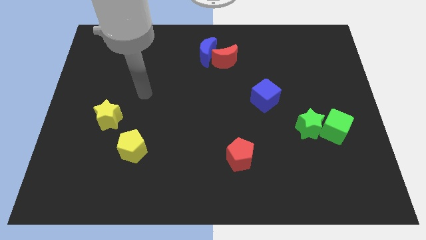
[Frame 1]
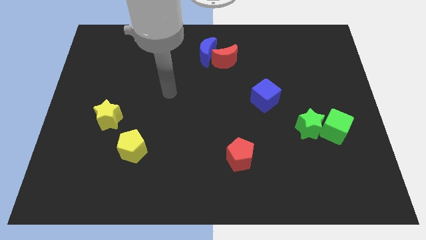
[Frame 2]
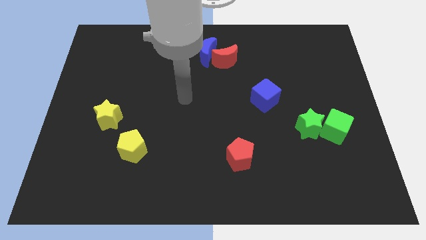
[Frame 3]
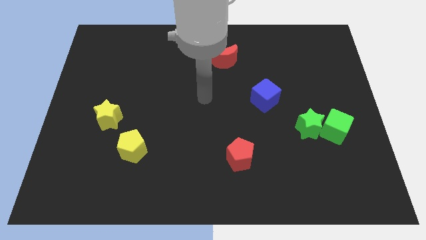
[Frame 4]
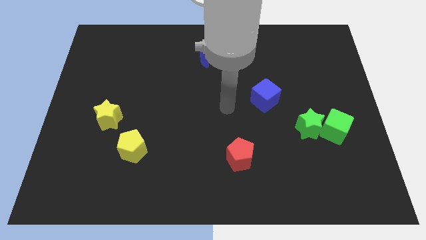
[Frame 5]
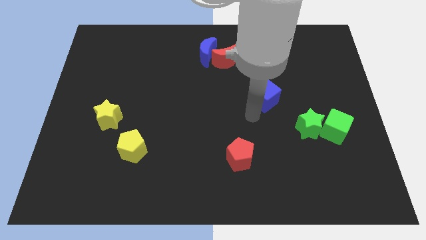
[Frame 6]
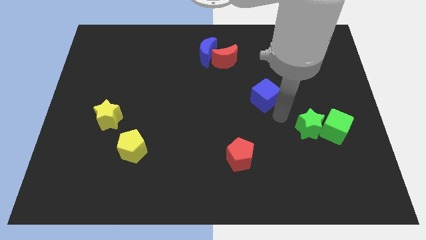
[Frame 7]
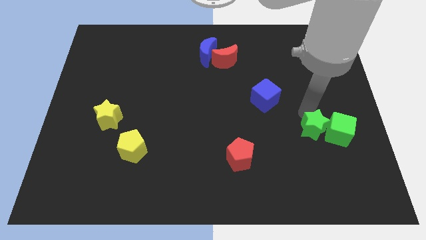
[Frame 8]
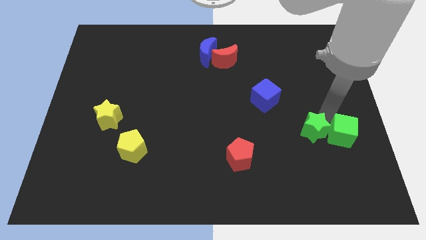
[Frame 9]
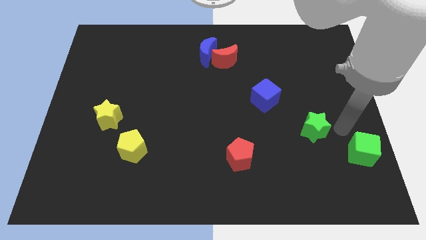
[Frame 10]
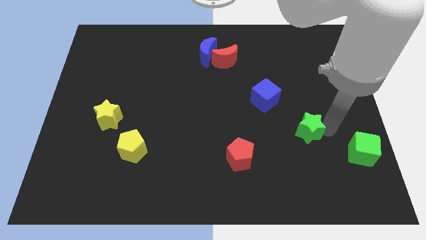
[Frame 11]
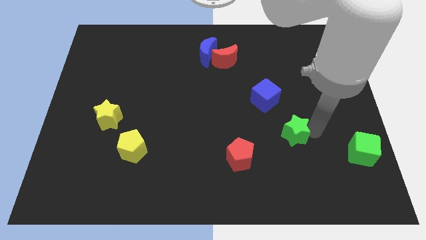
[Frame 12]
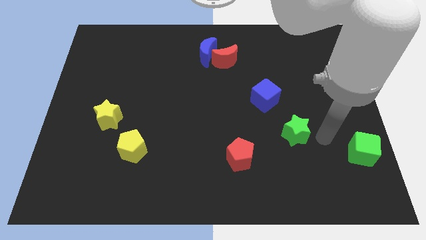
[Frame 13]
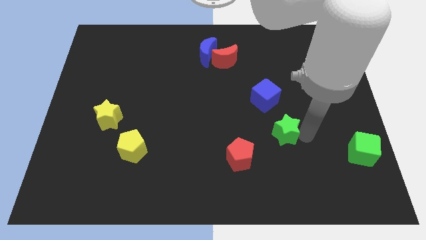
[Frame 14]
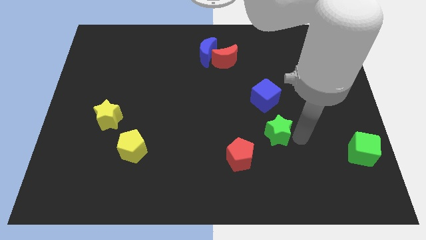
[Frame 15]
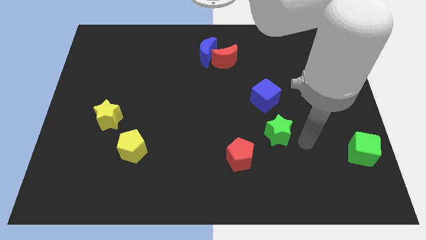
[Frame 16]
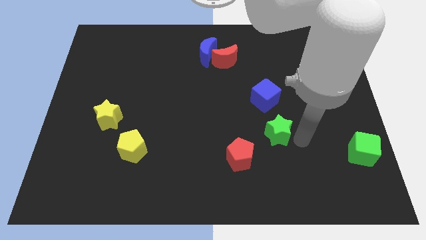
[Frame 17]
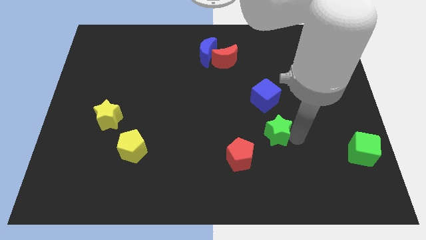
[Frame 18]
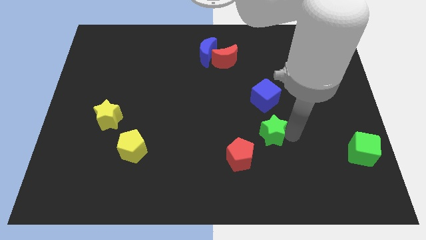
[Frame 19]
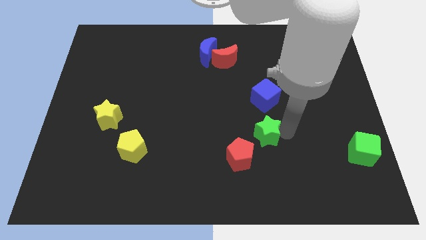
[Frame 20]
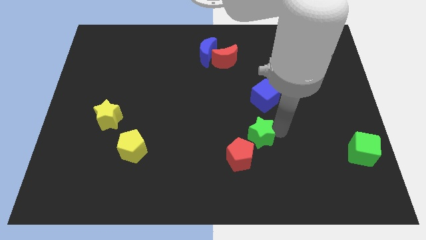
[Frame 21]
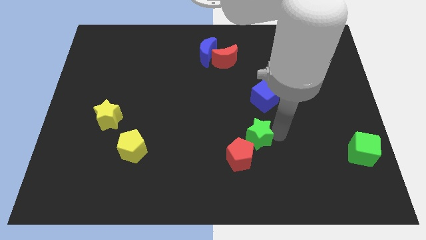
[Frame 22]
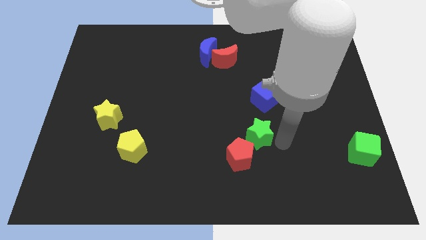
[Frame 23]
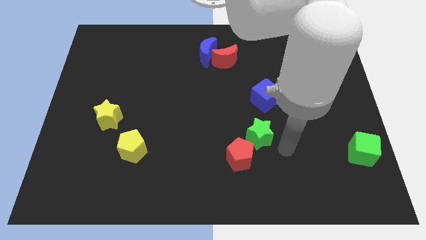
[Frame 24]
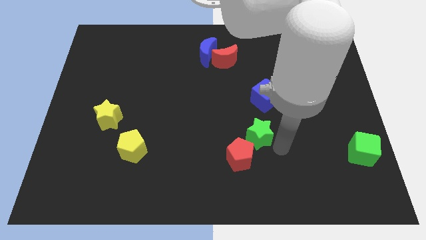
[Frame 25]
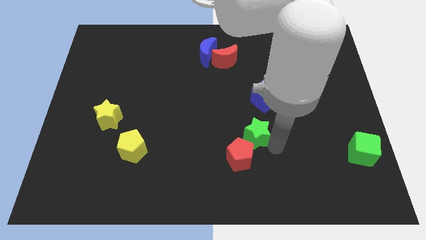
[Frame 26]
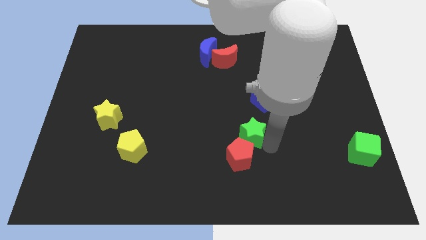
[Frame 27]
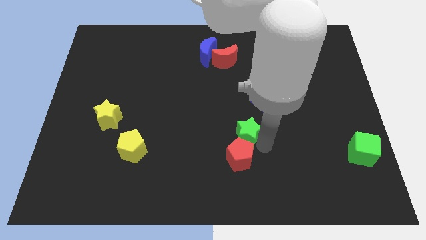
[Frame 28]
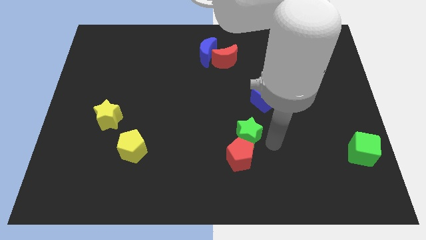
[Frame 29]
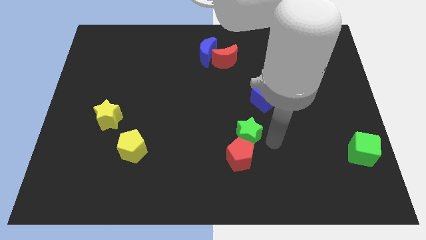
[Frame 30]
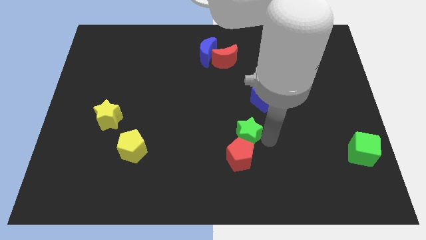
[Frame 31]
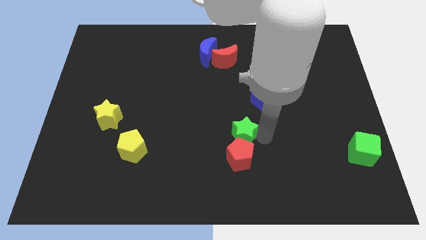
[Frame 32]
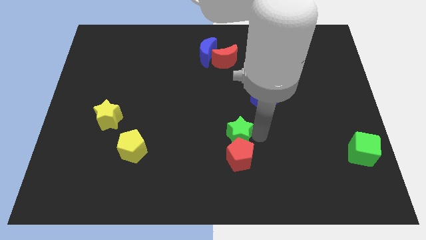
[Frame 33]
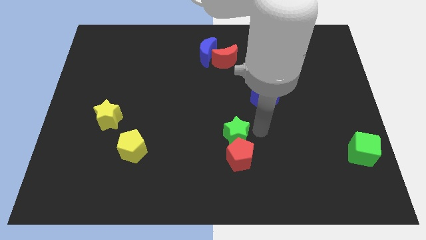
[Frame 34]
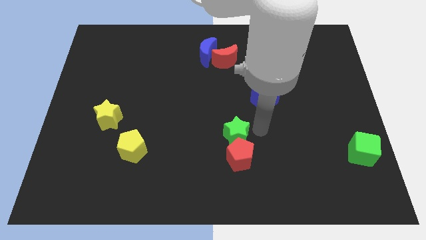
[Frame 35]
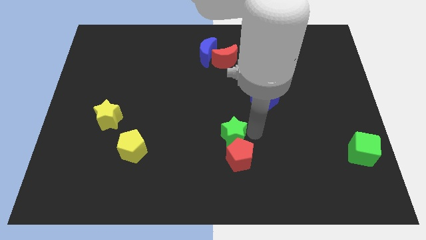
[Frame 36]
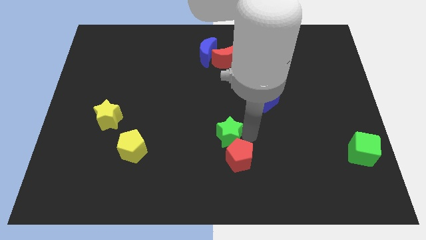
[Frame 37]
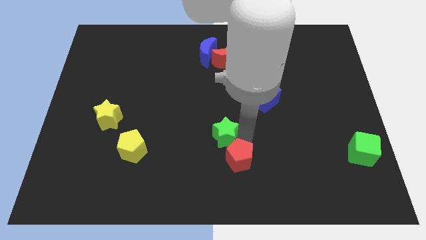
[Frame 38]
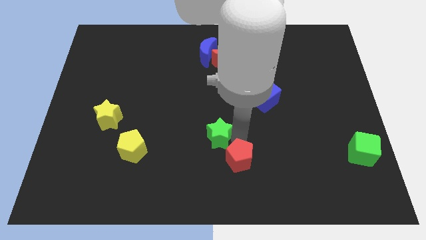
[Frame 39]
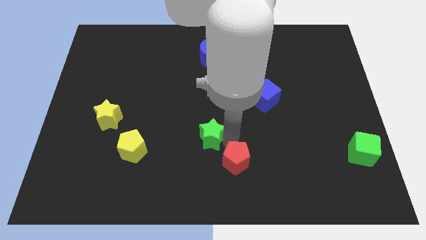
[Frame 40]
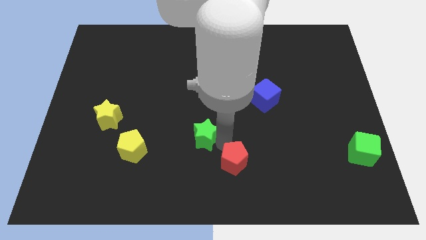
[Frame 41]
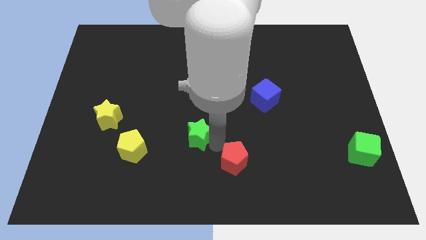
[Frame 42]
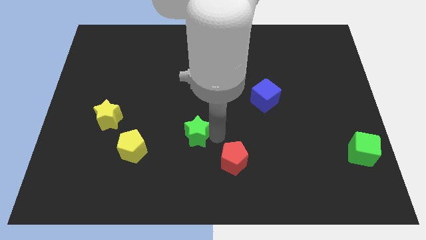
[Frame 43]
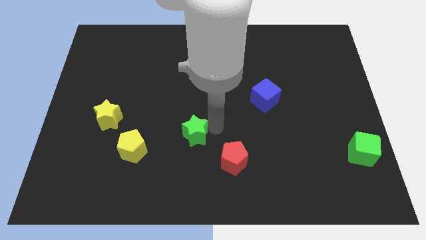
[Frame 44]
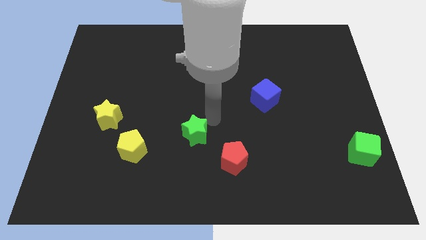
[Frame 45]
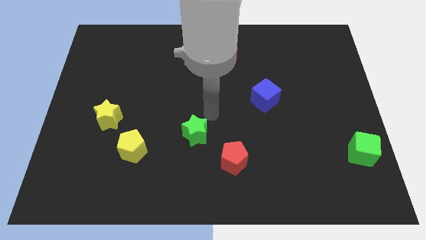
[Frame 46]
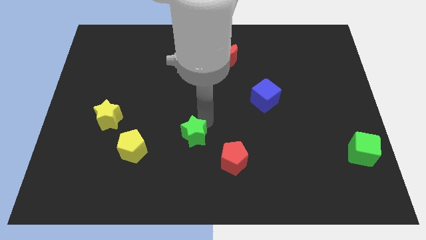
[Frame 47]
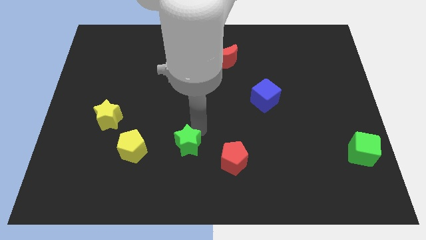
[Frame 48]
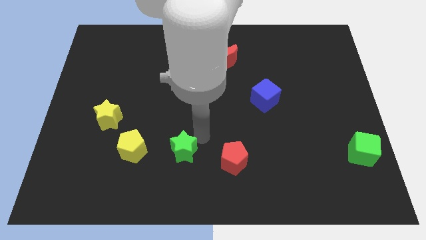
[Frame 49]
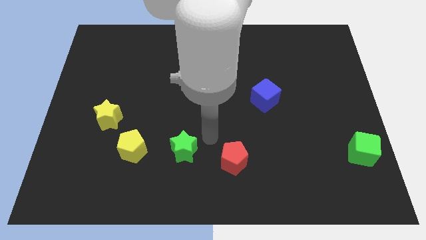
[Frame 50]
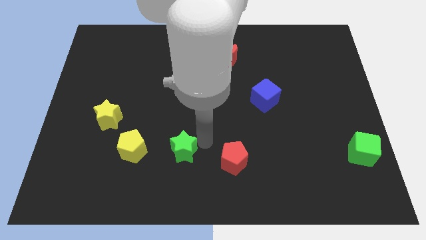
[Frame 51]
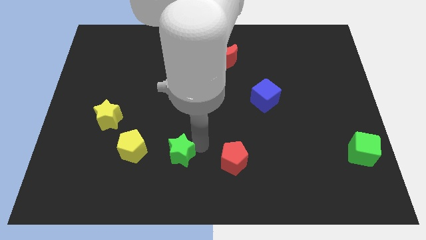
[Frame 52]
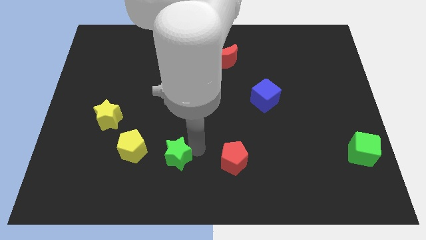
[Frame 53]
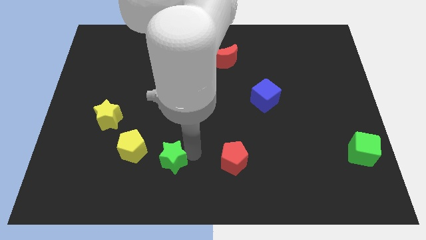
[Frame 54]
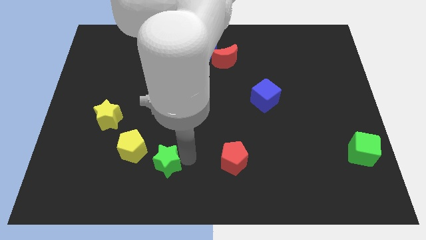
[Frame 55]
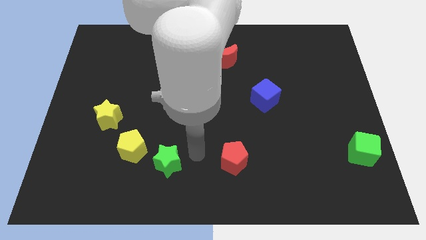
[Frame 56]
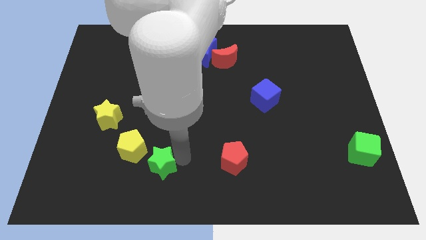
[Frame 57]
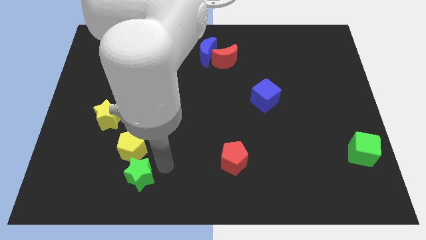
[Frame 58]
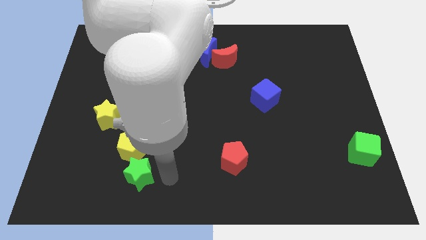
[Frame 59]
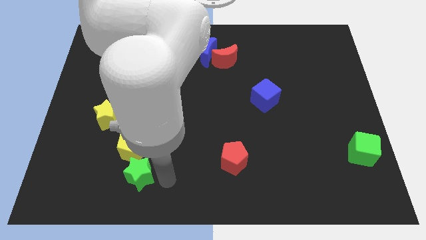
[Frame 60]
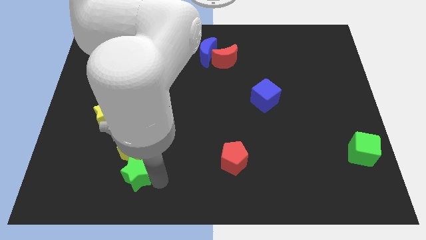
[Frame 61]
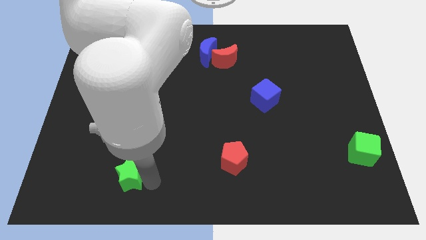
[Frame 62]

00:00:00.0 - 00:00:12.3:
move the green star to the bottom left side of the yellow pentagon

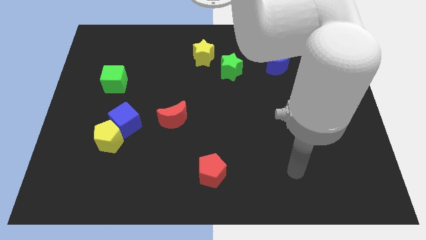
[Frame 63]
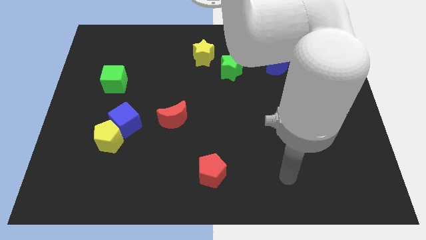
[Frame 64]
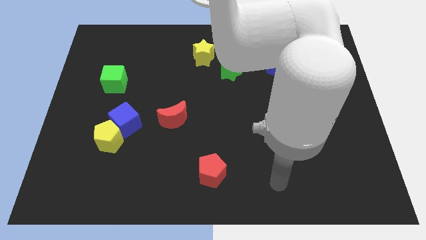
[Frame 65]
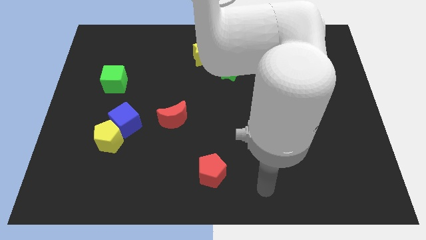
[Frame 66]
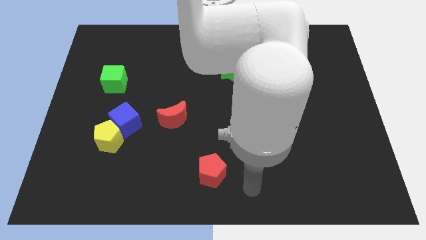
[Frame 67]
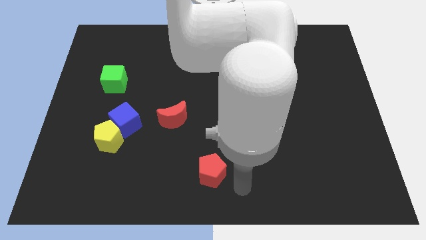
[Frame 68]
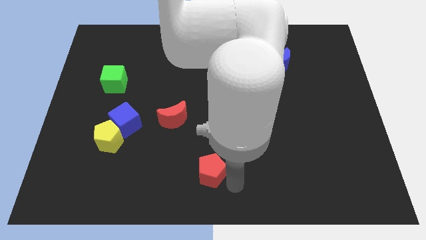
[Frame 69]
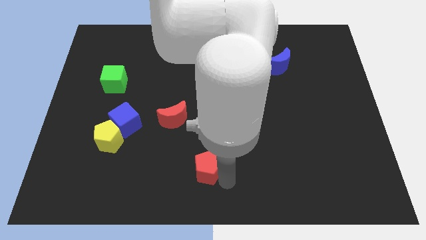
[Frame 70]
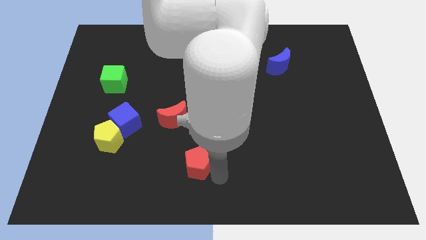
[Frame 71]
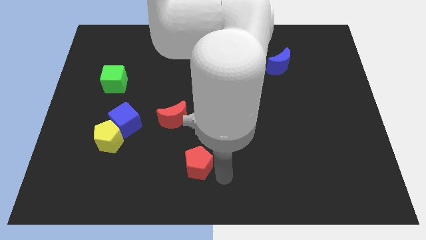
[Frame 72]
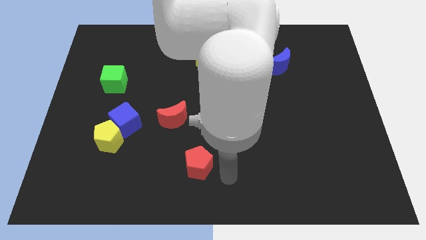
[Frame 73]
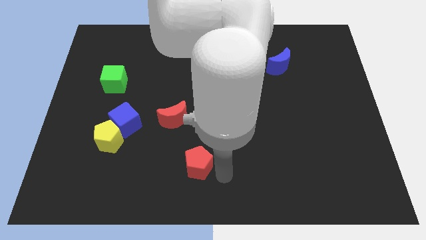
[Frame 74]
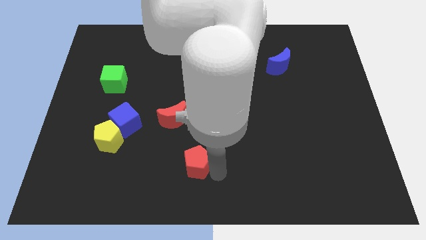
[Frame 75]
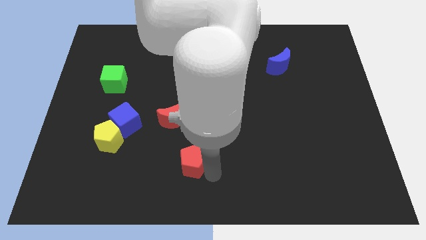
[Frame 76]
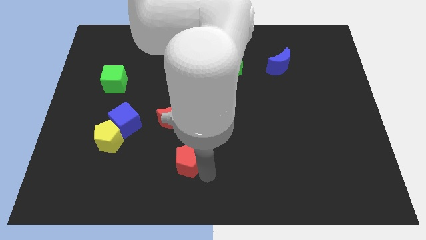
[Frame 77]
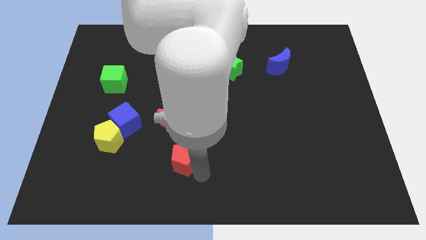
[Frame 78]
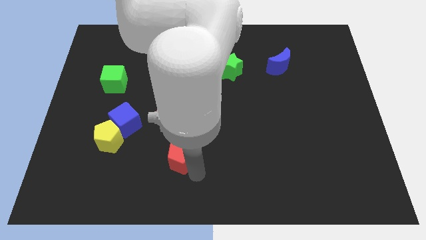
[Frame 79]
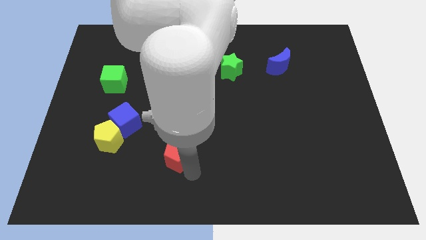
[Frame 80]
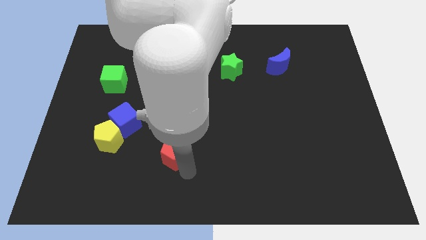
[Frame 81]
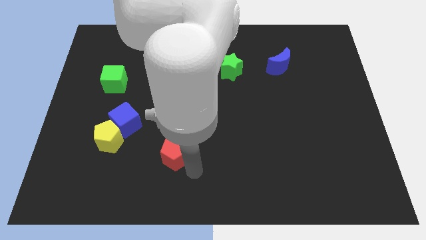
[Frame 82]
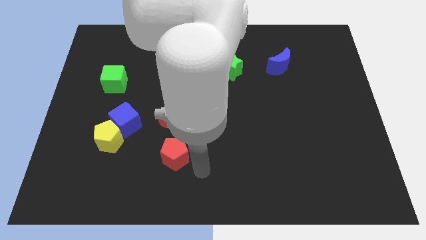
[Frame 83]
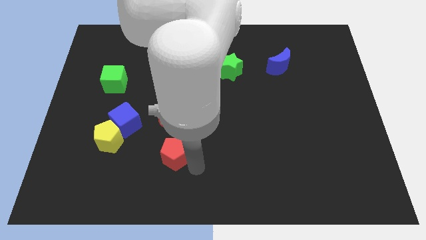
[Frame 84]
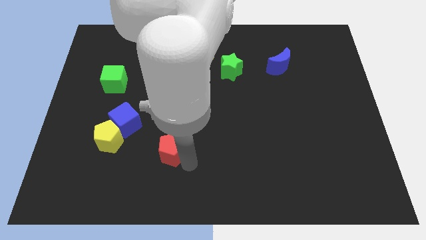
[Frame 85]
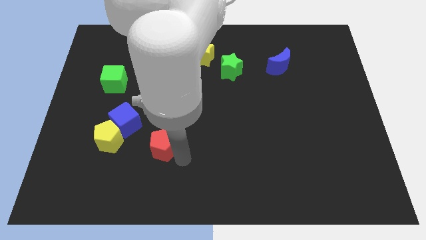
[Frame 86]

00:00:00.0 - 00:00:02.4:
push the red pentagon to the bottom right of the blue cube
